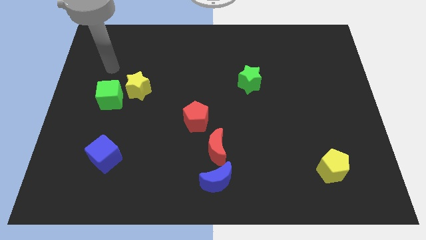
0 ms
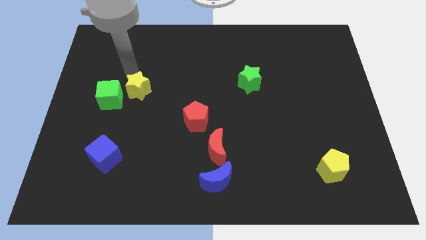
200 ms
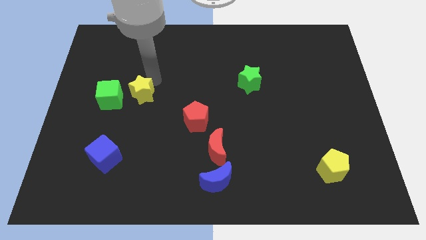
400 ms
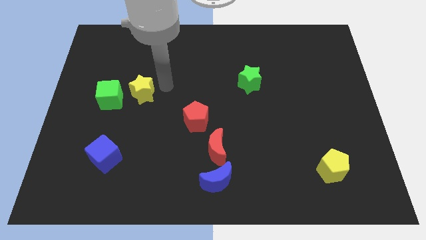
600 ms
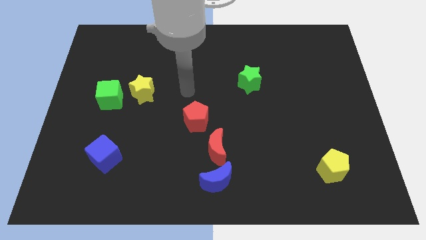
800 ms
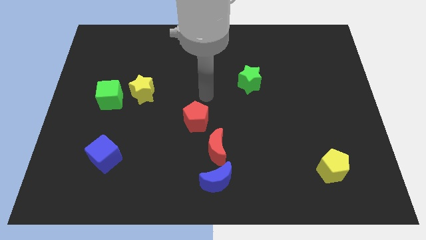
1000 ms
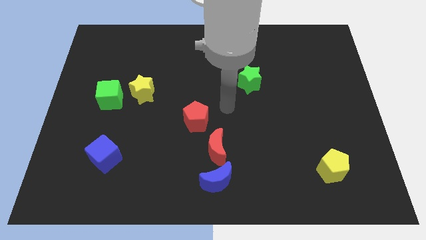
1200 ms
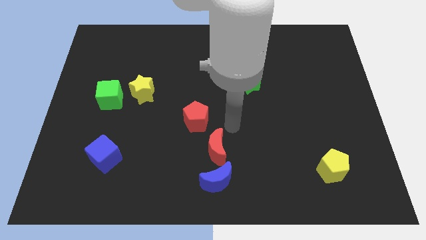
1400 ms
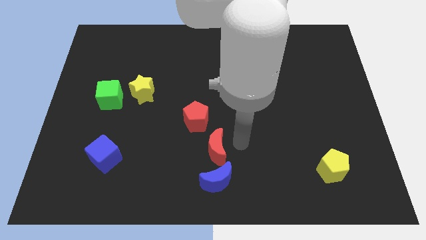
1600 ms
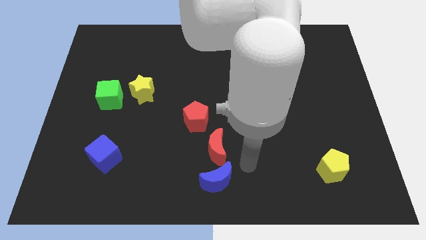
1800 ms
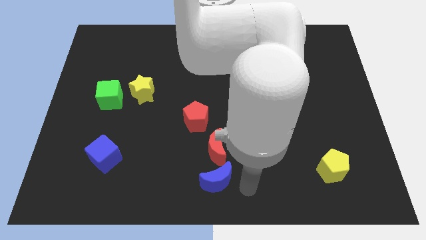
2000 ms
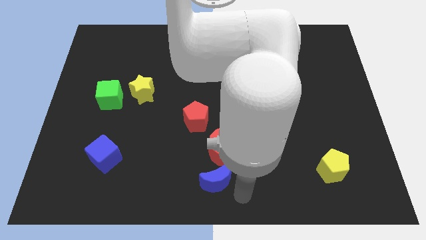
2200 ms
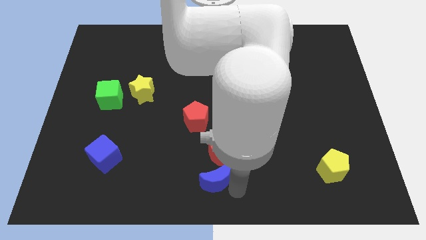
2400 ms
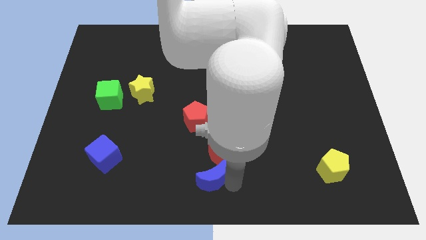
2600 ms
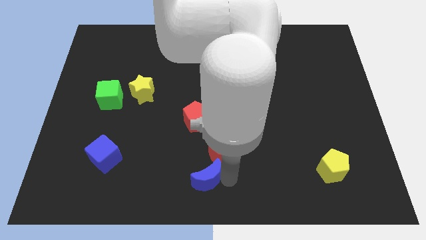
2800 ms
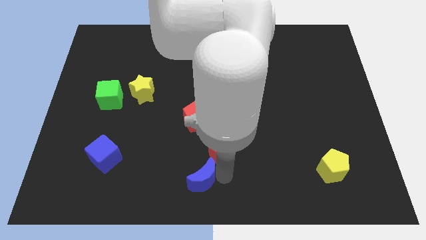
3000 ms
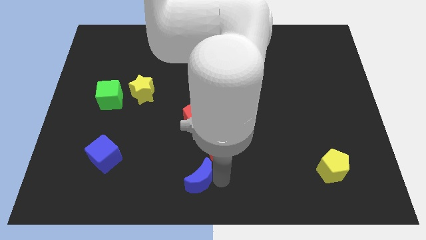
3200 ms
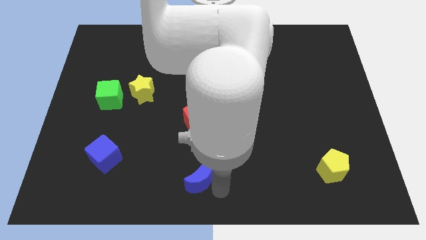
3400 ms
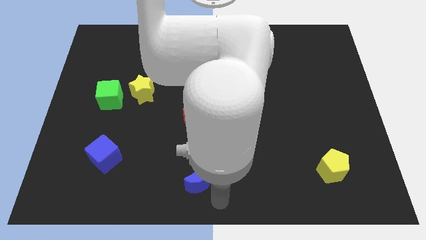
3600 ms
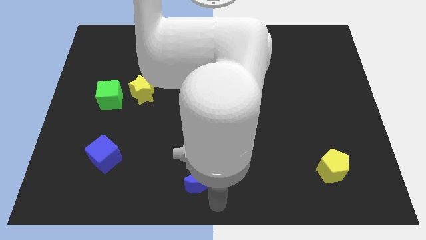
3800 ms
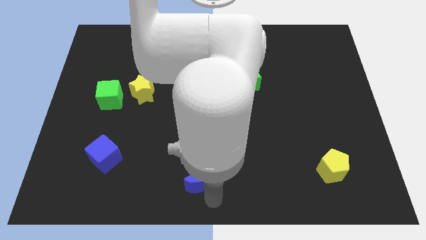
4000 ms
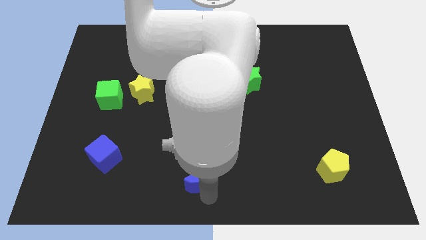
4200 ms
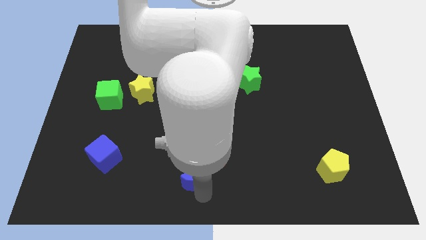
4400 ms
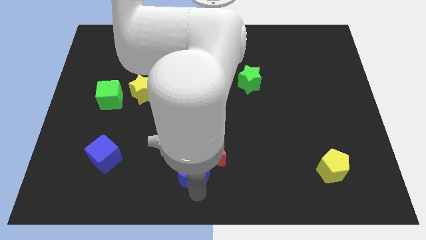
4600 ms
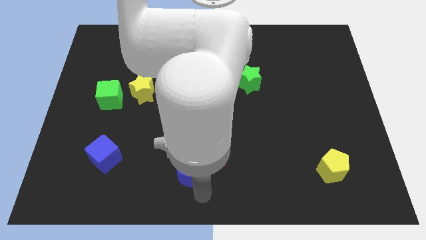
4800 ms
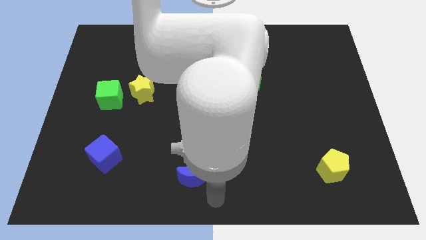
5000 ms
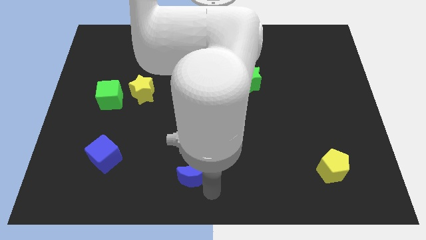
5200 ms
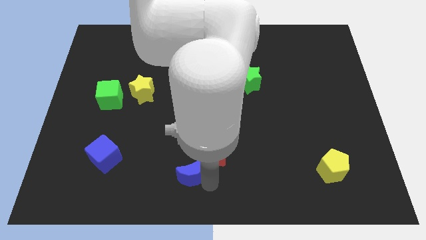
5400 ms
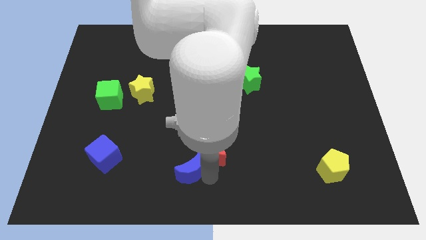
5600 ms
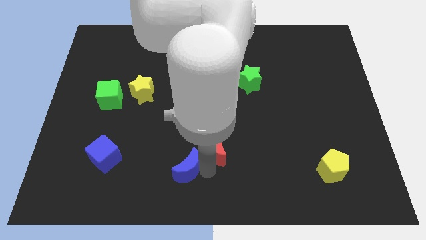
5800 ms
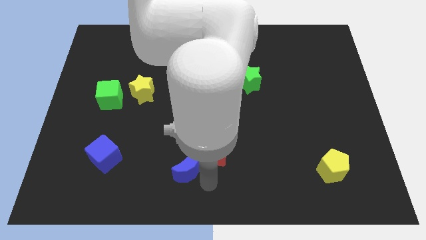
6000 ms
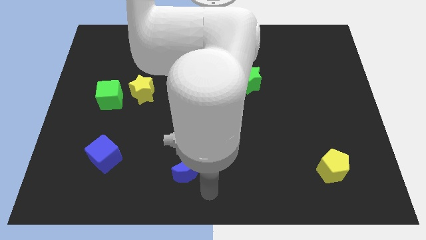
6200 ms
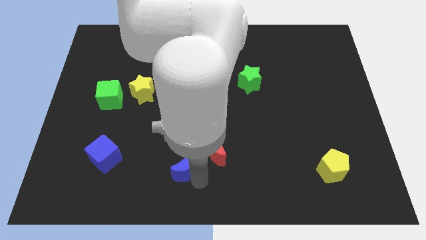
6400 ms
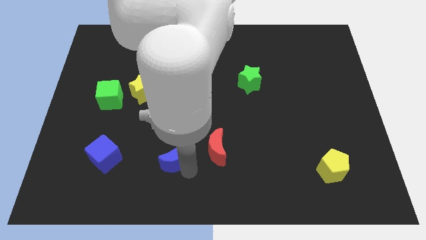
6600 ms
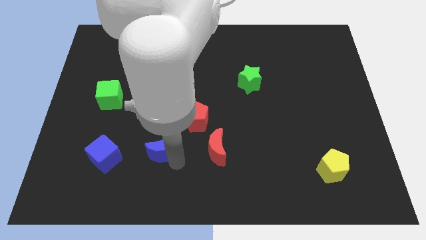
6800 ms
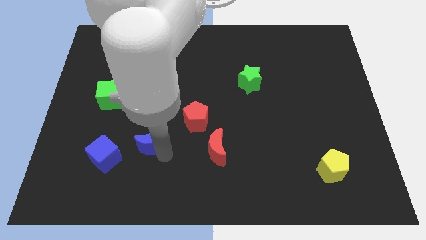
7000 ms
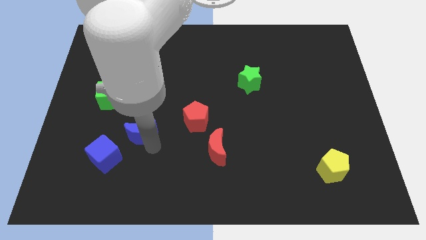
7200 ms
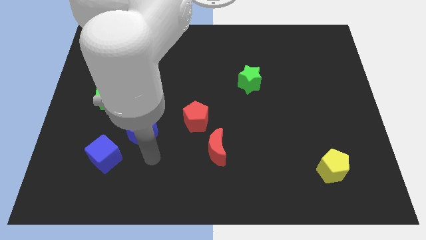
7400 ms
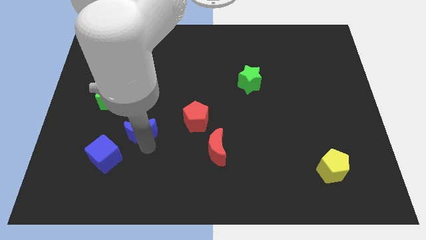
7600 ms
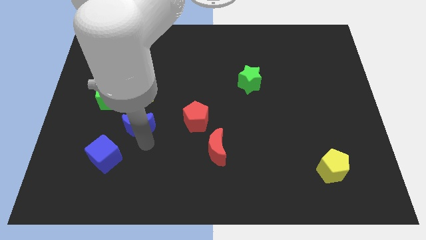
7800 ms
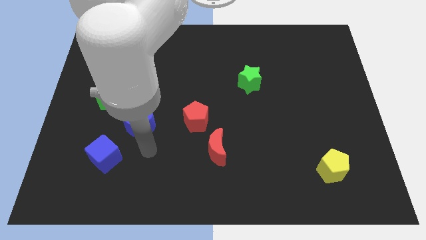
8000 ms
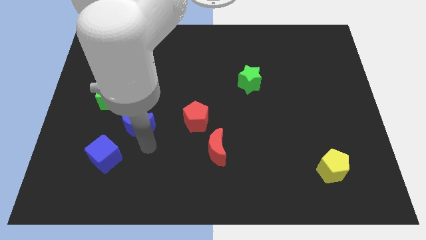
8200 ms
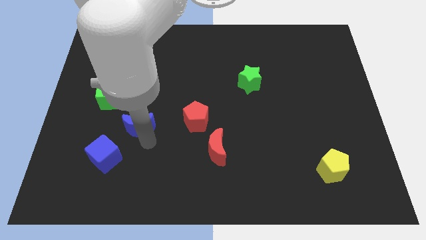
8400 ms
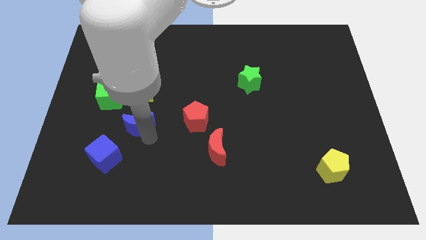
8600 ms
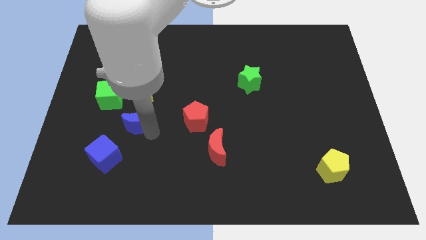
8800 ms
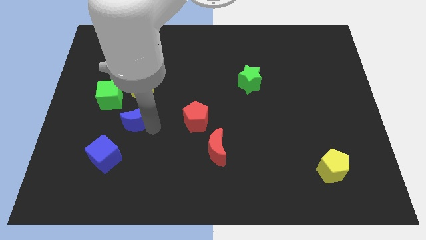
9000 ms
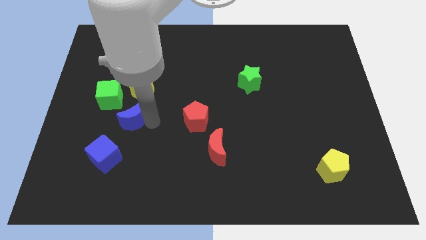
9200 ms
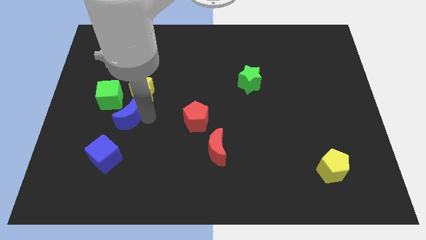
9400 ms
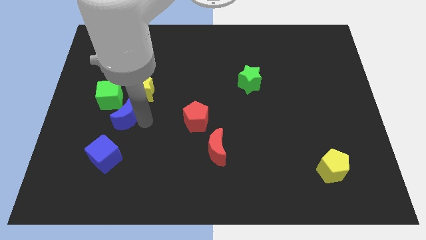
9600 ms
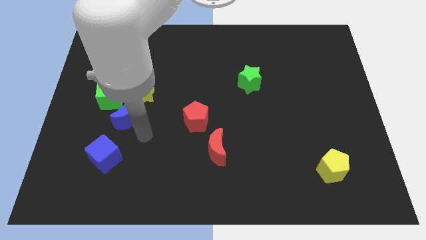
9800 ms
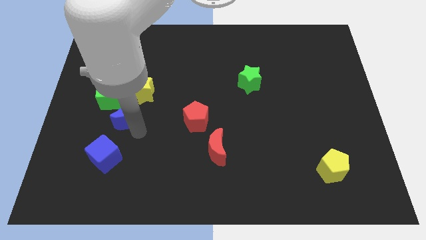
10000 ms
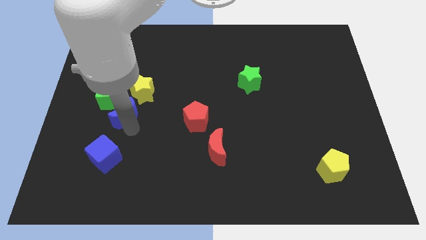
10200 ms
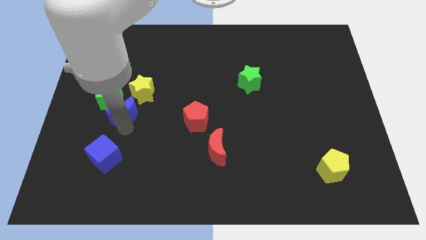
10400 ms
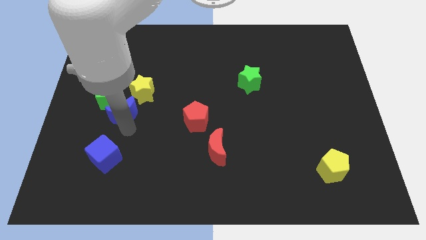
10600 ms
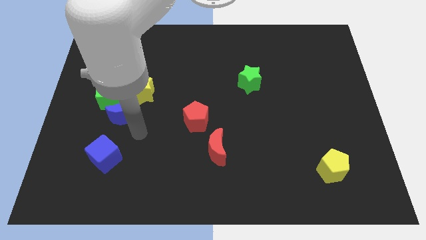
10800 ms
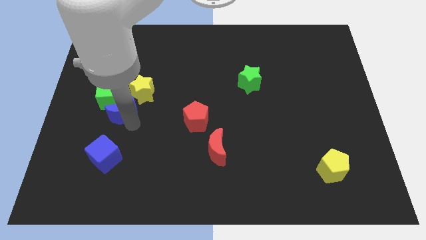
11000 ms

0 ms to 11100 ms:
slide the blue moon to the green cube
